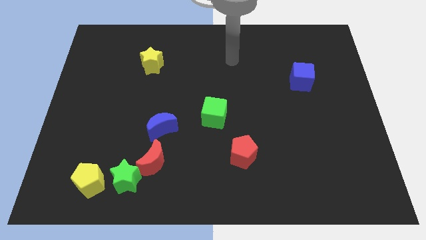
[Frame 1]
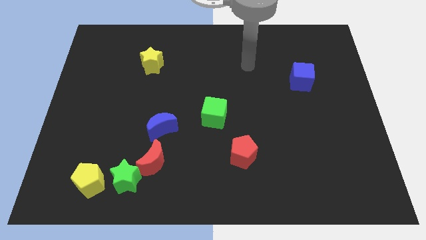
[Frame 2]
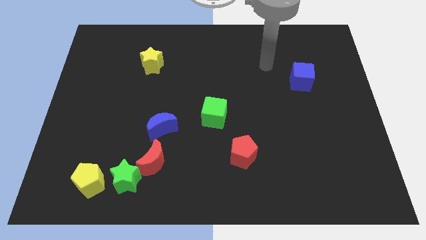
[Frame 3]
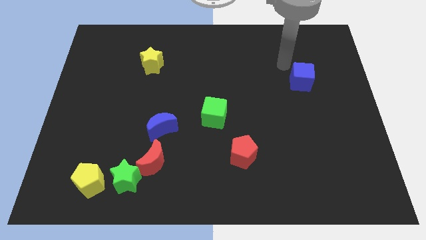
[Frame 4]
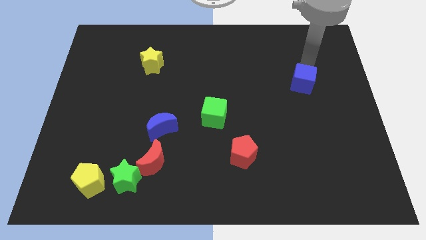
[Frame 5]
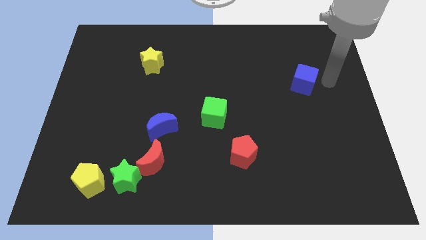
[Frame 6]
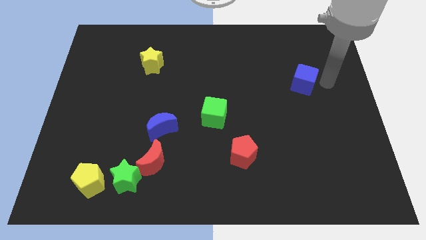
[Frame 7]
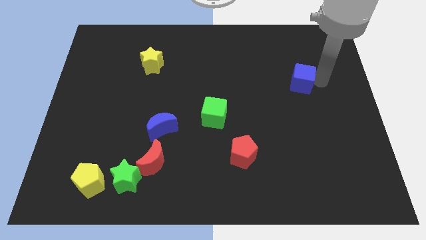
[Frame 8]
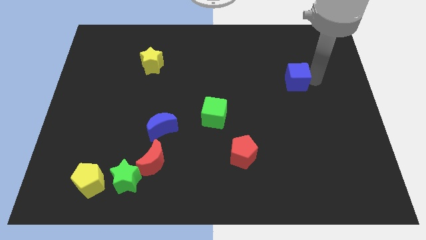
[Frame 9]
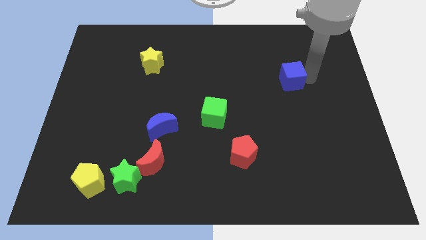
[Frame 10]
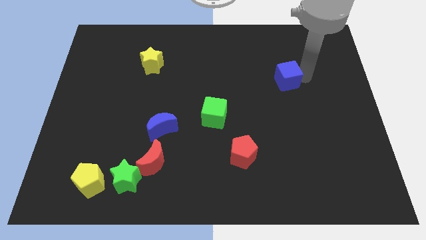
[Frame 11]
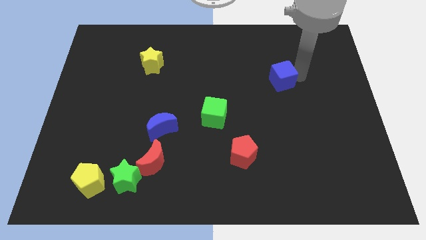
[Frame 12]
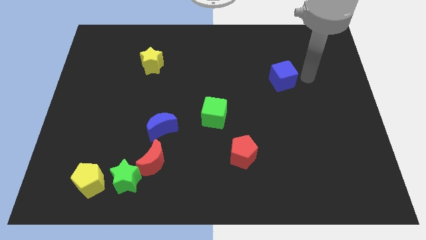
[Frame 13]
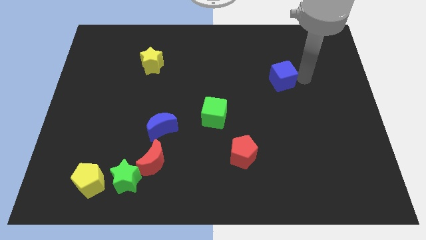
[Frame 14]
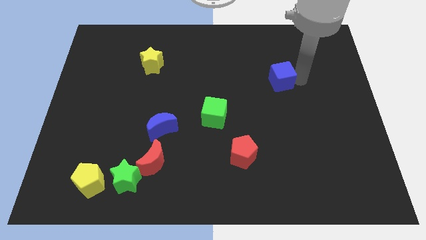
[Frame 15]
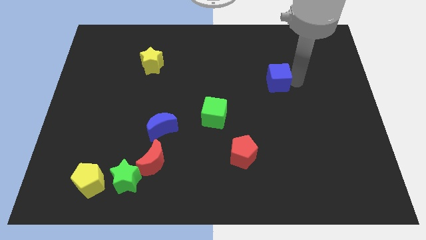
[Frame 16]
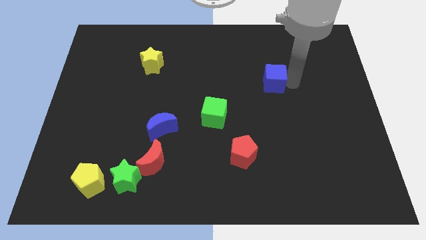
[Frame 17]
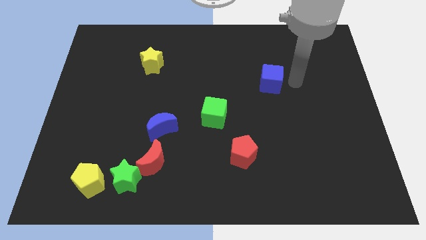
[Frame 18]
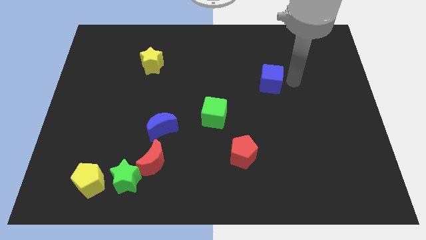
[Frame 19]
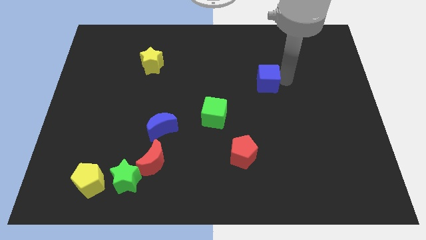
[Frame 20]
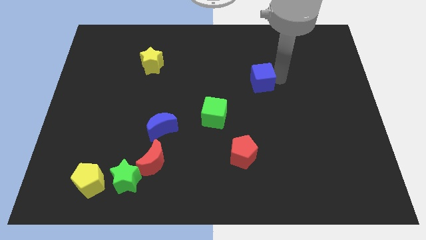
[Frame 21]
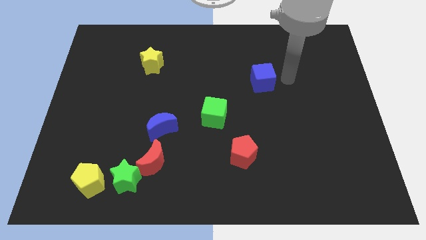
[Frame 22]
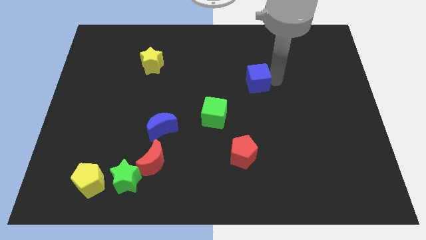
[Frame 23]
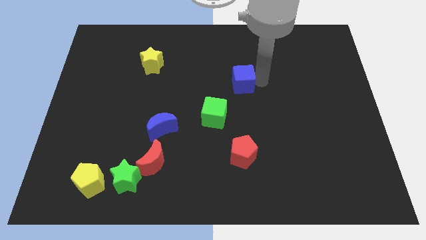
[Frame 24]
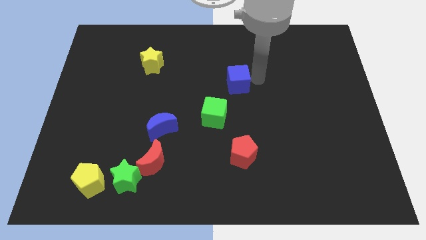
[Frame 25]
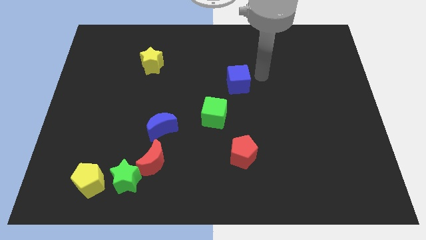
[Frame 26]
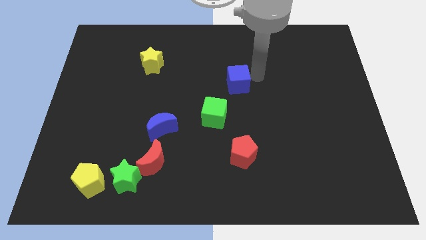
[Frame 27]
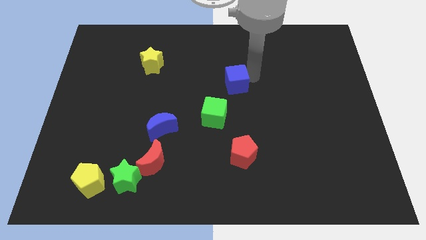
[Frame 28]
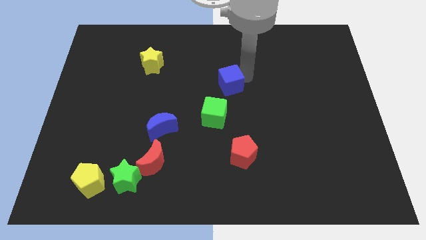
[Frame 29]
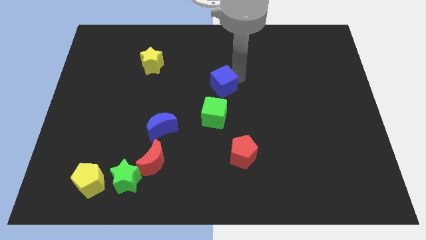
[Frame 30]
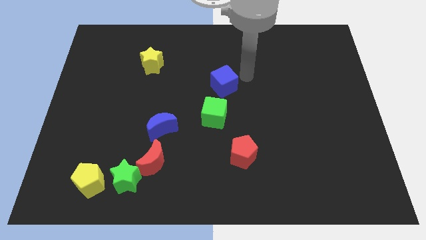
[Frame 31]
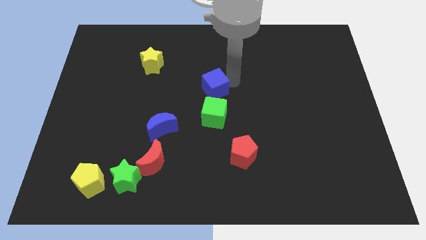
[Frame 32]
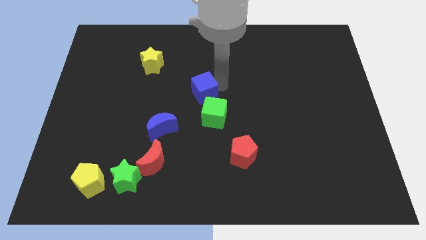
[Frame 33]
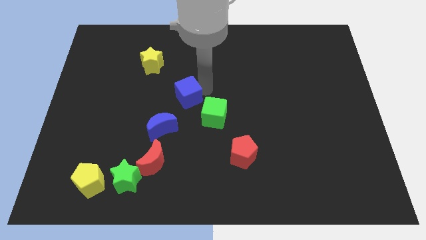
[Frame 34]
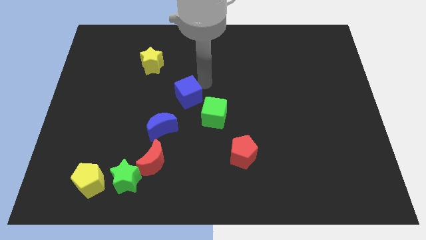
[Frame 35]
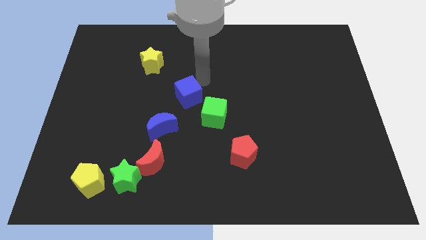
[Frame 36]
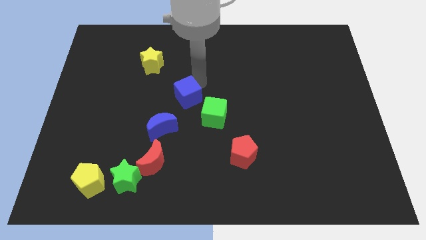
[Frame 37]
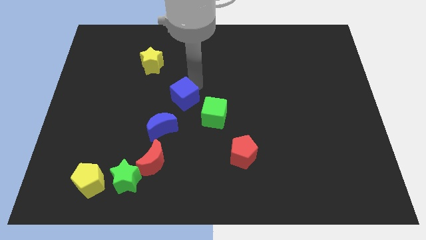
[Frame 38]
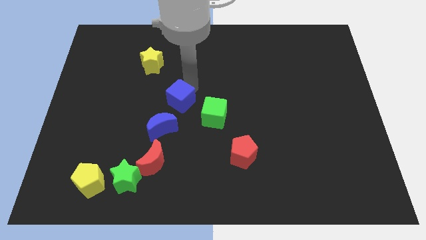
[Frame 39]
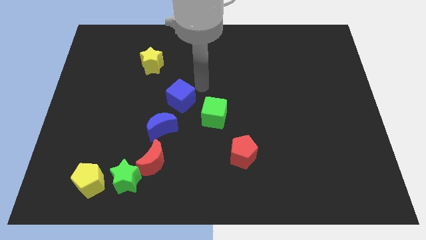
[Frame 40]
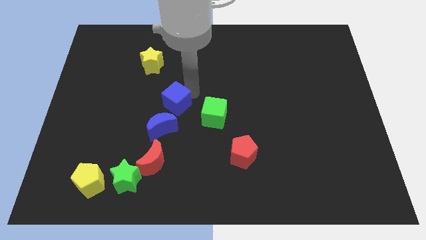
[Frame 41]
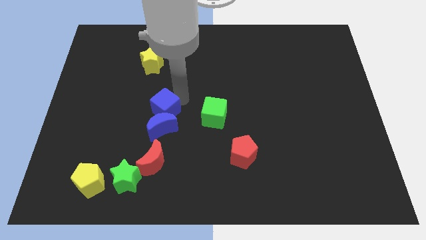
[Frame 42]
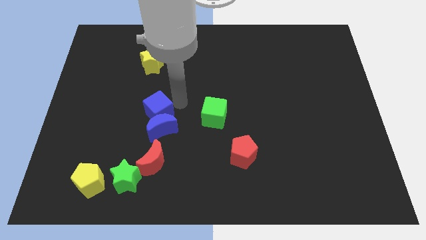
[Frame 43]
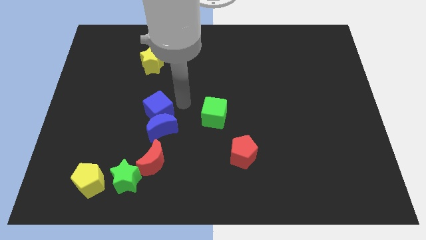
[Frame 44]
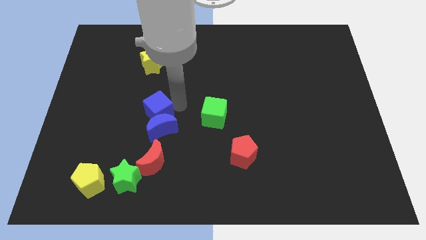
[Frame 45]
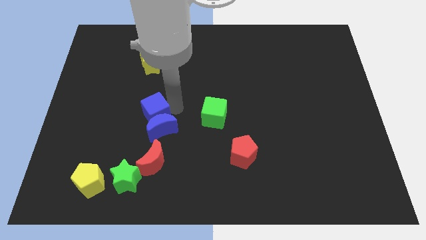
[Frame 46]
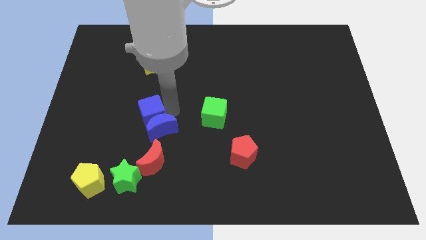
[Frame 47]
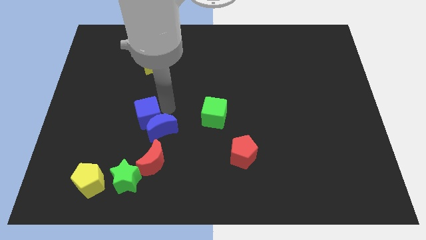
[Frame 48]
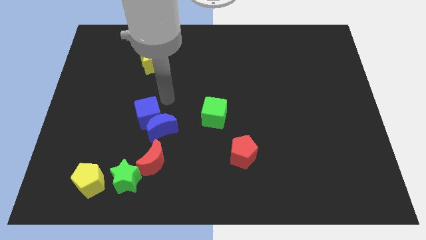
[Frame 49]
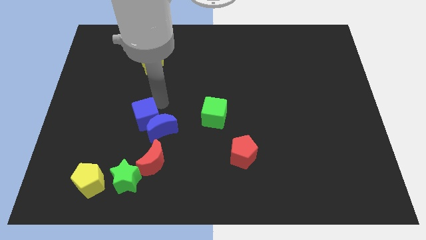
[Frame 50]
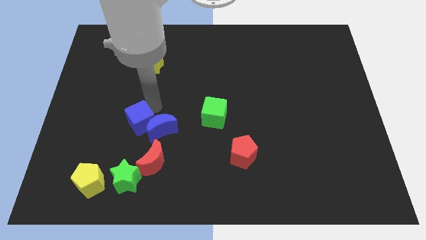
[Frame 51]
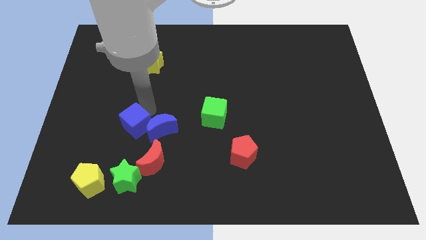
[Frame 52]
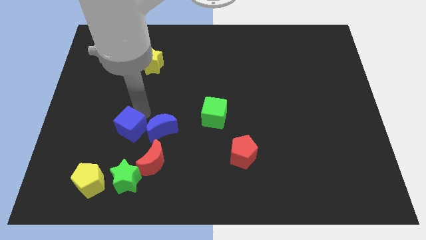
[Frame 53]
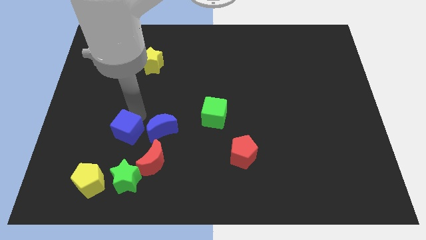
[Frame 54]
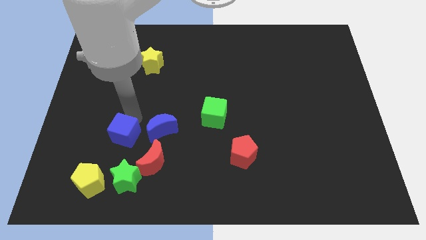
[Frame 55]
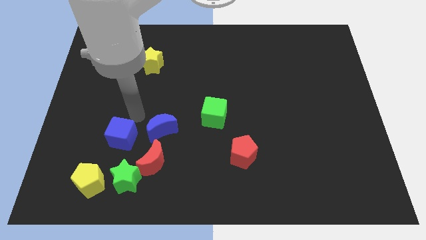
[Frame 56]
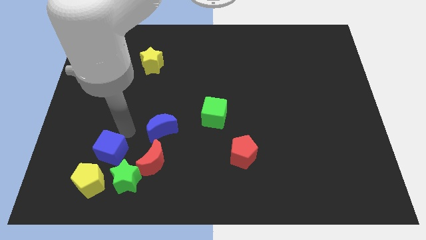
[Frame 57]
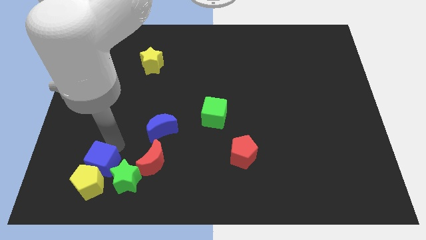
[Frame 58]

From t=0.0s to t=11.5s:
put the blue cube towards the yellow pentagon
